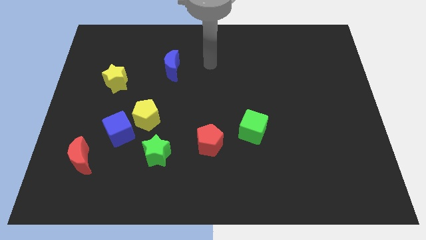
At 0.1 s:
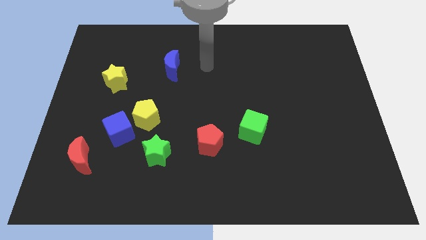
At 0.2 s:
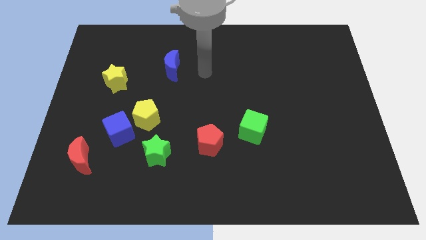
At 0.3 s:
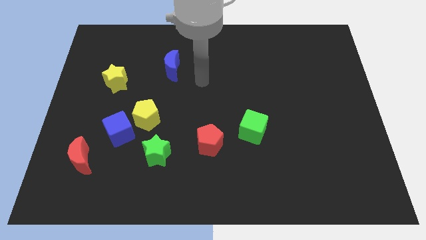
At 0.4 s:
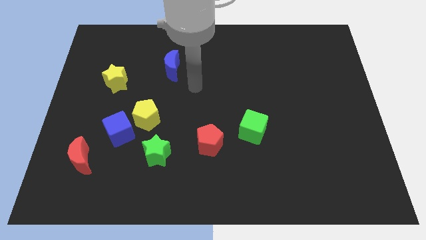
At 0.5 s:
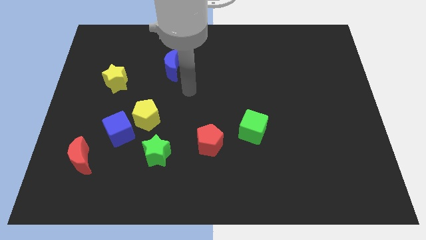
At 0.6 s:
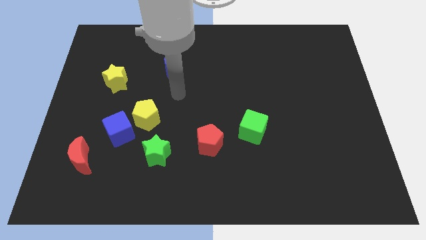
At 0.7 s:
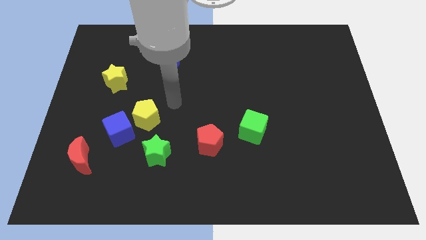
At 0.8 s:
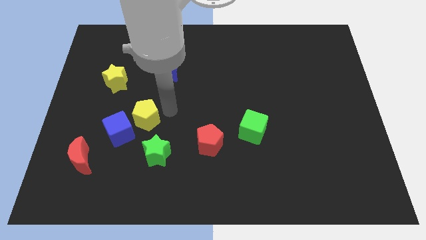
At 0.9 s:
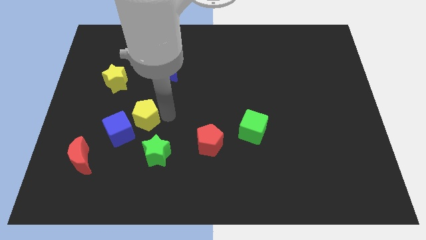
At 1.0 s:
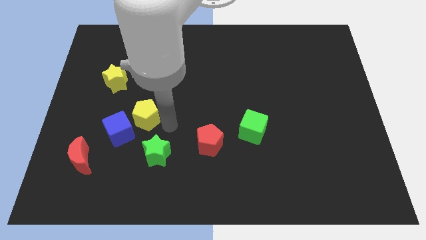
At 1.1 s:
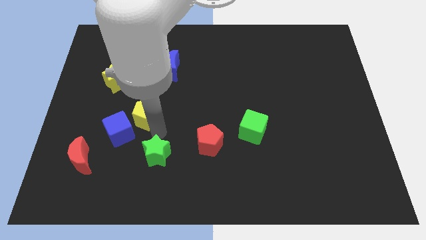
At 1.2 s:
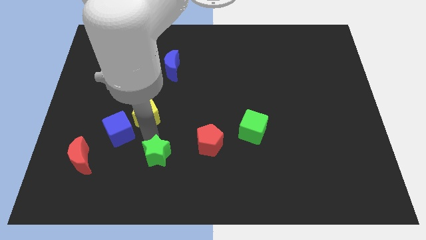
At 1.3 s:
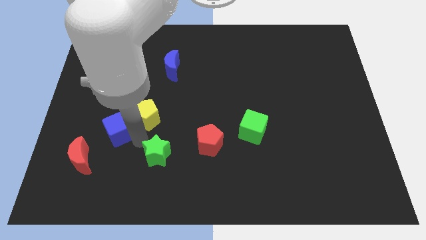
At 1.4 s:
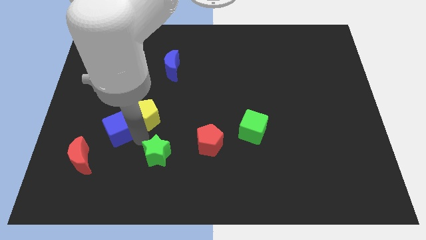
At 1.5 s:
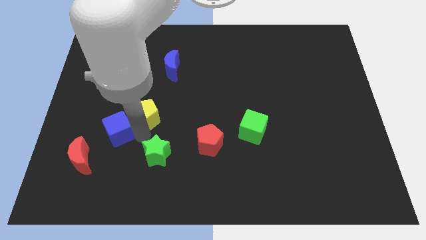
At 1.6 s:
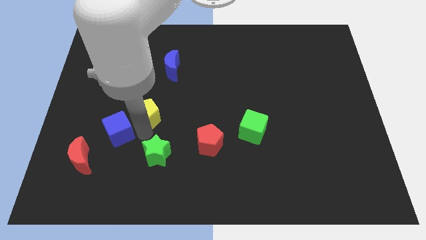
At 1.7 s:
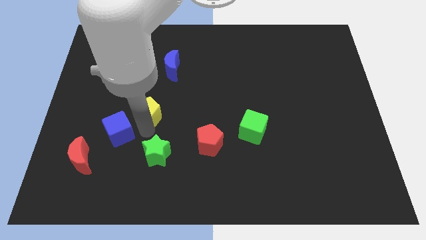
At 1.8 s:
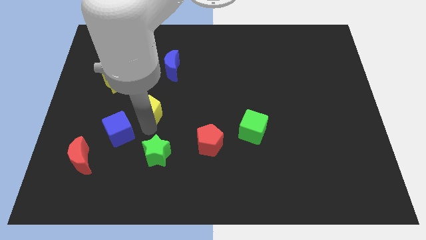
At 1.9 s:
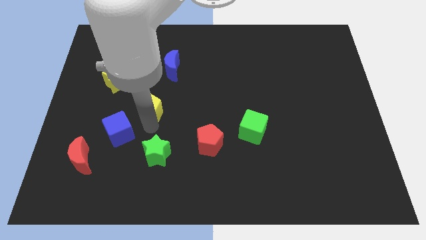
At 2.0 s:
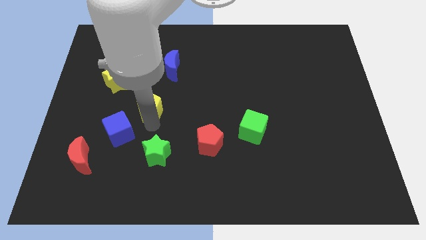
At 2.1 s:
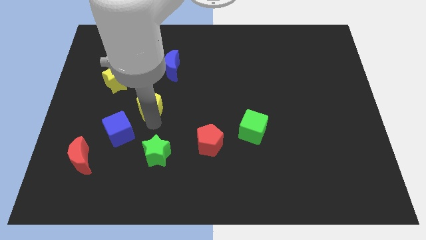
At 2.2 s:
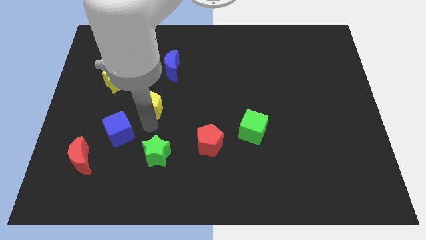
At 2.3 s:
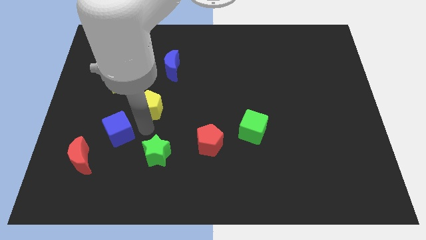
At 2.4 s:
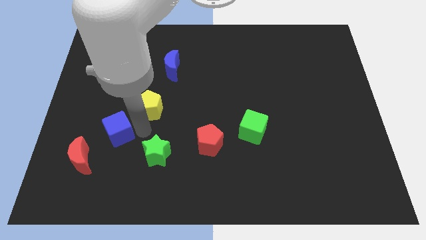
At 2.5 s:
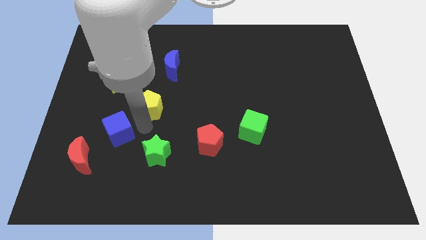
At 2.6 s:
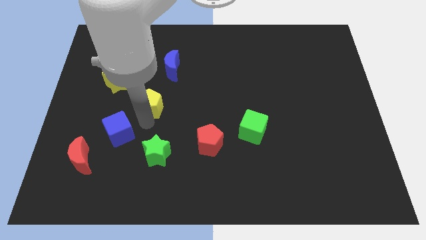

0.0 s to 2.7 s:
separate the yellow pentagon from the blue cube and green star

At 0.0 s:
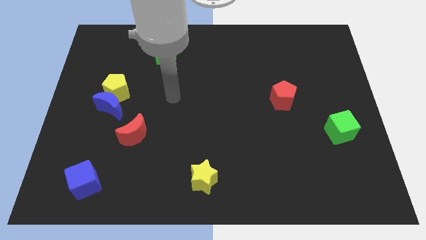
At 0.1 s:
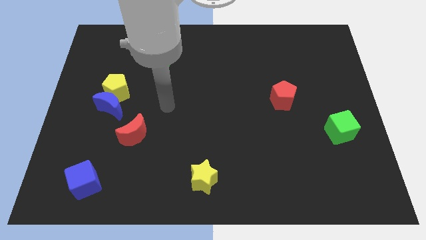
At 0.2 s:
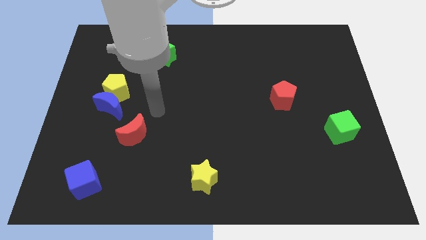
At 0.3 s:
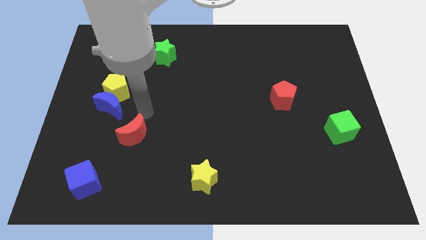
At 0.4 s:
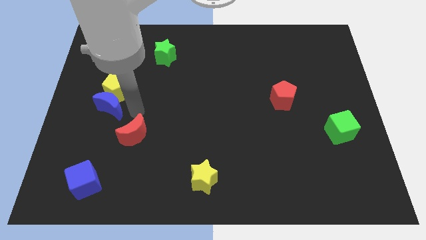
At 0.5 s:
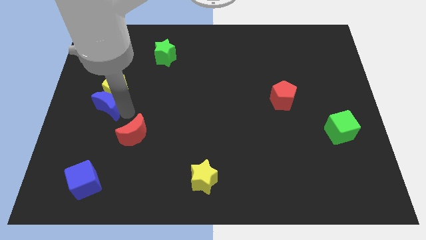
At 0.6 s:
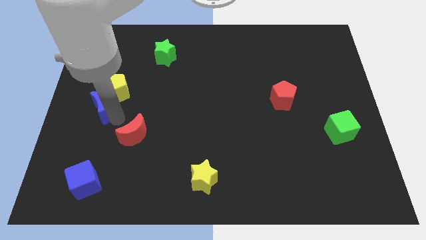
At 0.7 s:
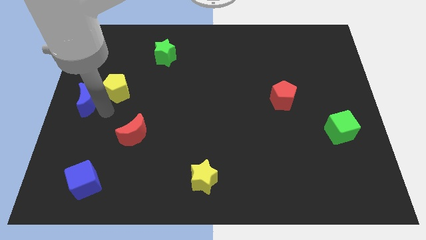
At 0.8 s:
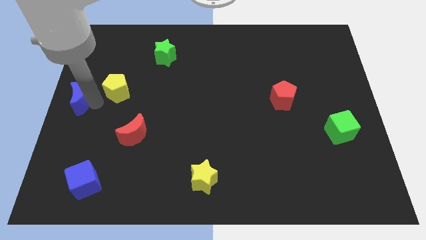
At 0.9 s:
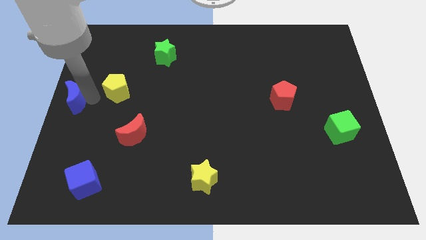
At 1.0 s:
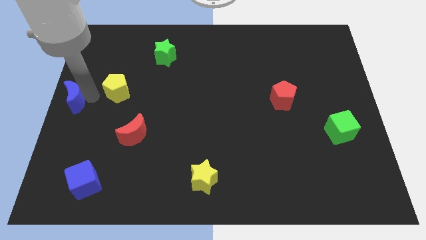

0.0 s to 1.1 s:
pull the yellow pentagon apart from the blue moon

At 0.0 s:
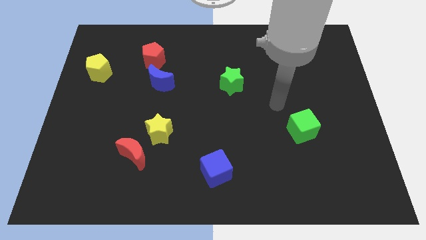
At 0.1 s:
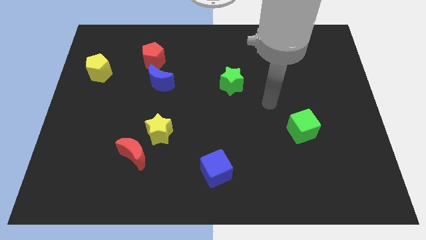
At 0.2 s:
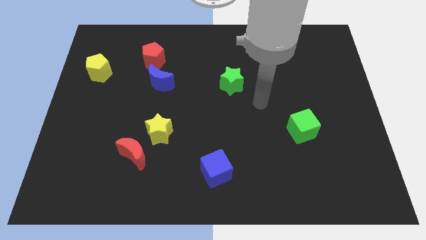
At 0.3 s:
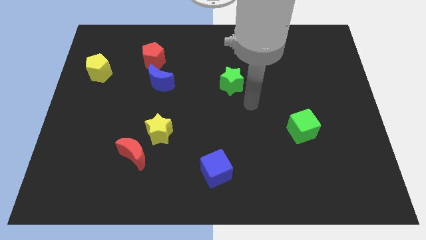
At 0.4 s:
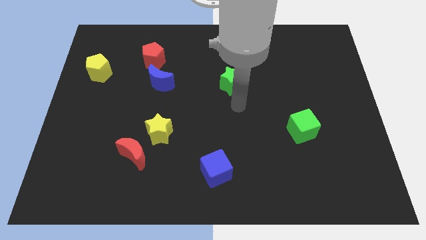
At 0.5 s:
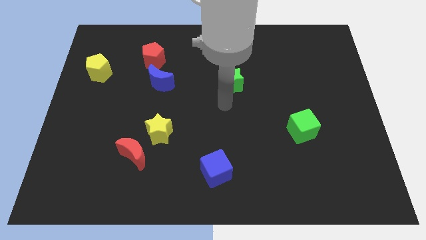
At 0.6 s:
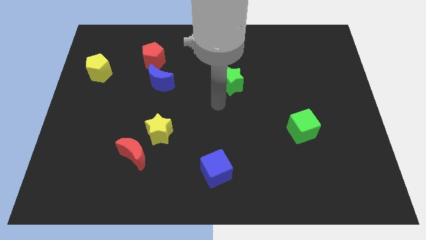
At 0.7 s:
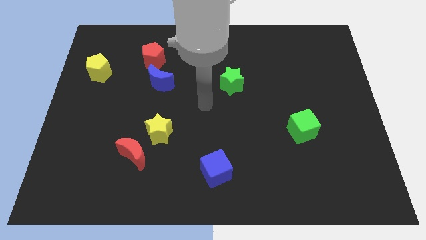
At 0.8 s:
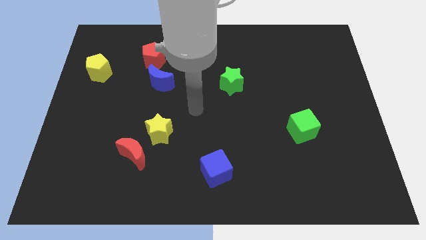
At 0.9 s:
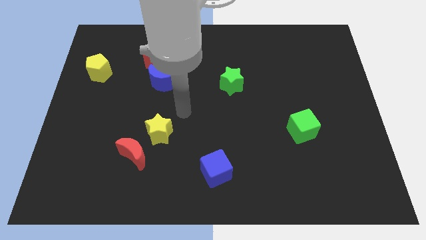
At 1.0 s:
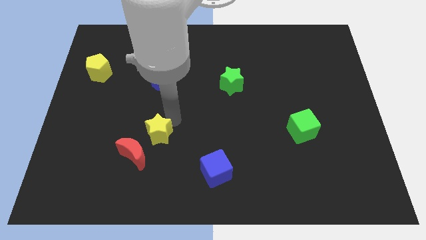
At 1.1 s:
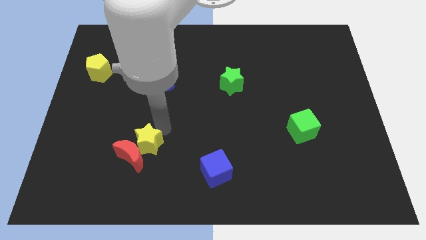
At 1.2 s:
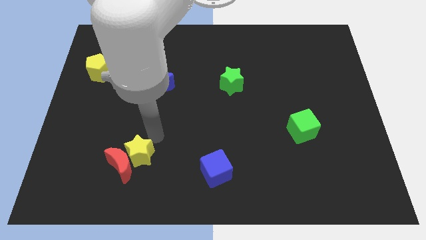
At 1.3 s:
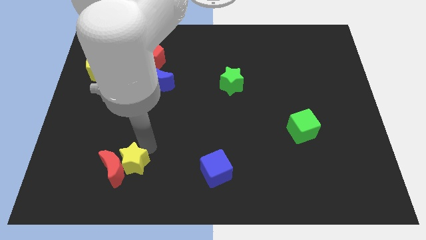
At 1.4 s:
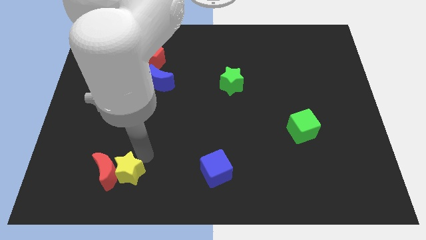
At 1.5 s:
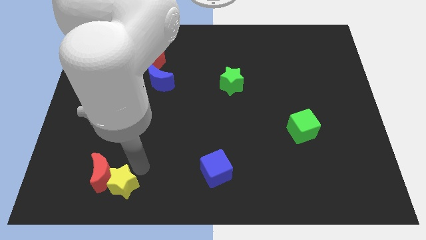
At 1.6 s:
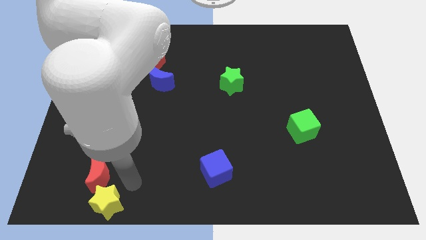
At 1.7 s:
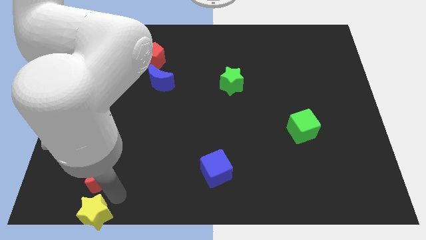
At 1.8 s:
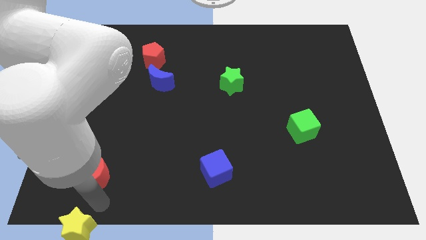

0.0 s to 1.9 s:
separate the red moon from the yellow star

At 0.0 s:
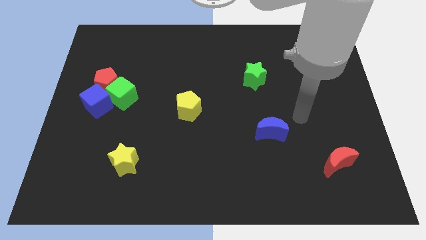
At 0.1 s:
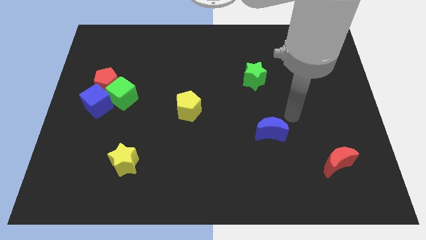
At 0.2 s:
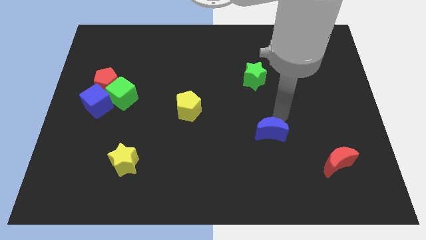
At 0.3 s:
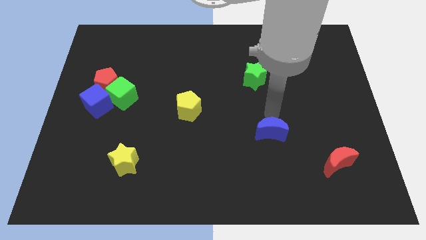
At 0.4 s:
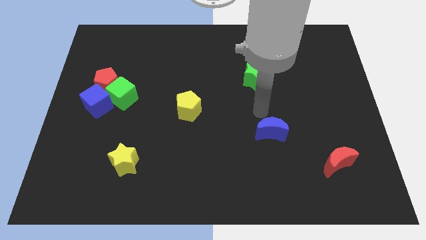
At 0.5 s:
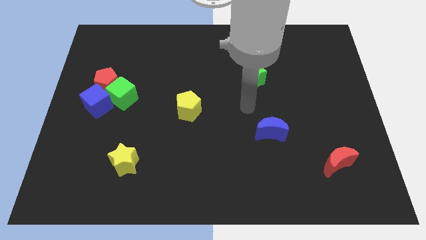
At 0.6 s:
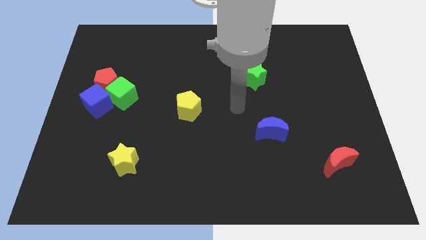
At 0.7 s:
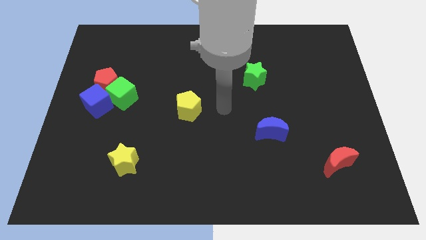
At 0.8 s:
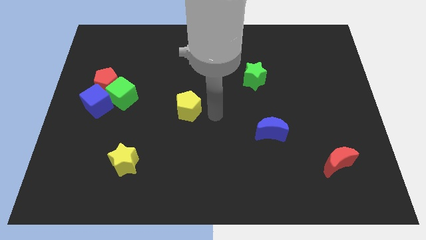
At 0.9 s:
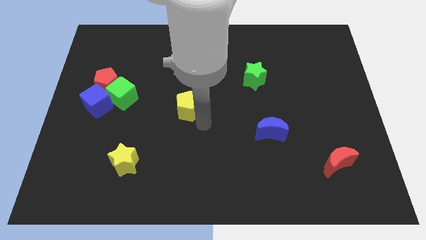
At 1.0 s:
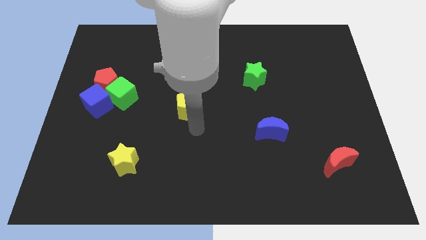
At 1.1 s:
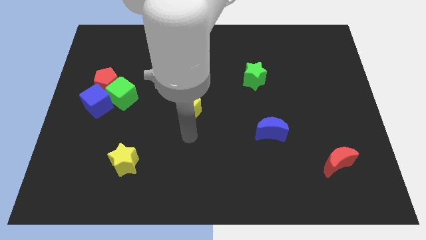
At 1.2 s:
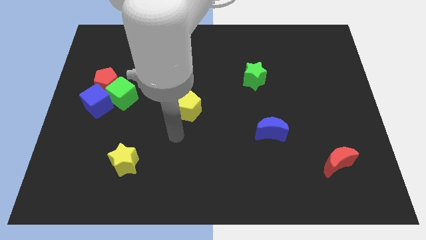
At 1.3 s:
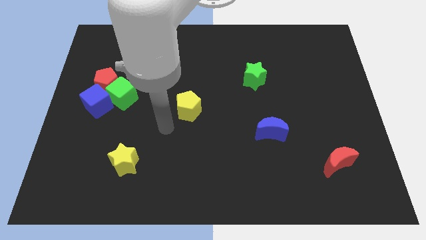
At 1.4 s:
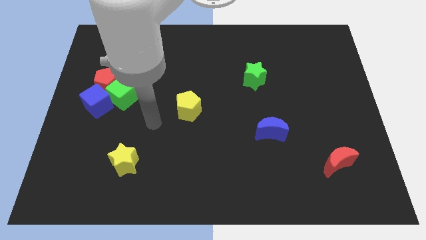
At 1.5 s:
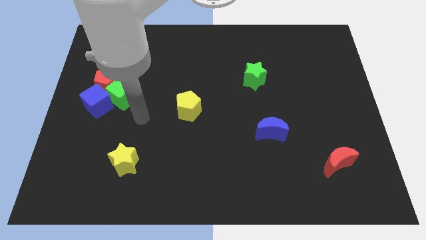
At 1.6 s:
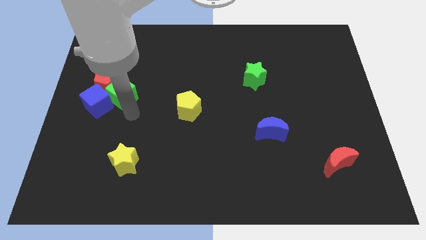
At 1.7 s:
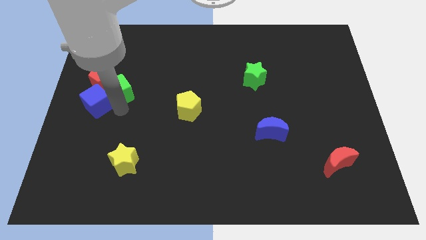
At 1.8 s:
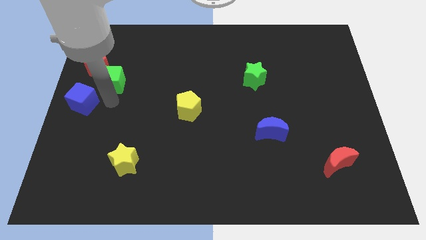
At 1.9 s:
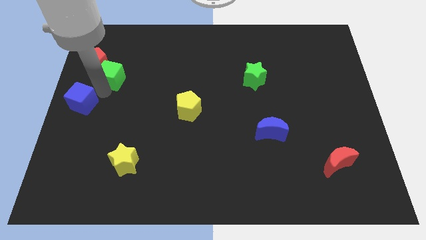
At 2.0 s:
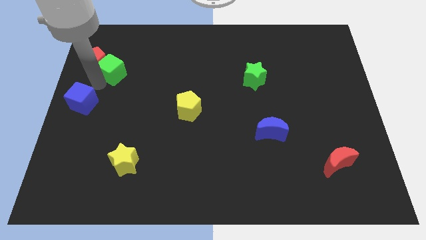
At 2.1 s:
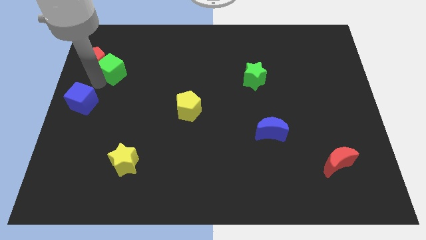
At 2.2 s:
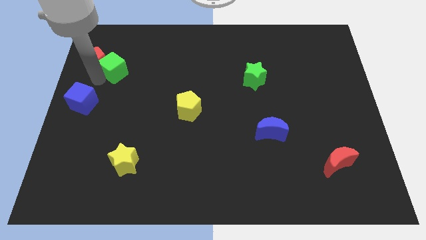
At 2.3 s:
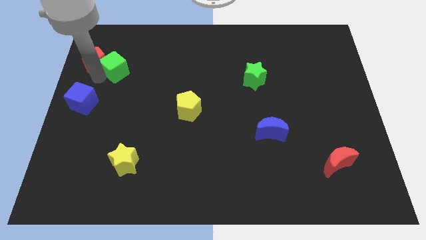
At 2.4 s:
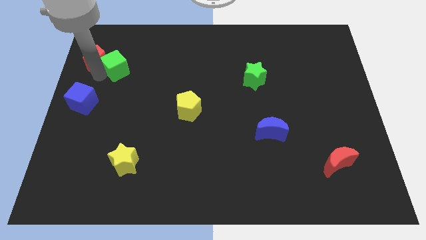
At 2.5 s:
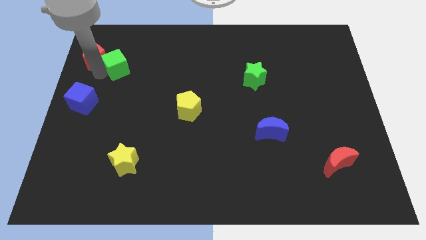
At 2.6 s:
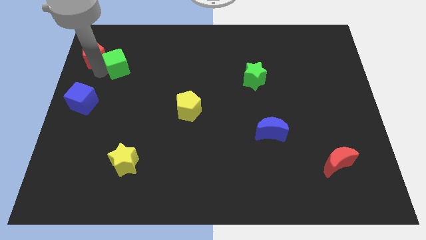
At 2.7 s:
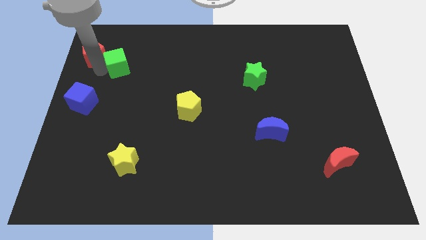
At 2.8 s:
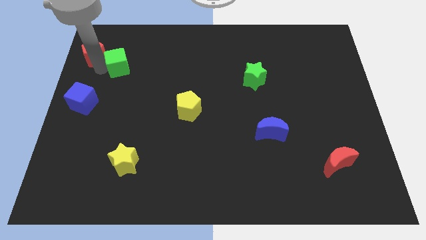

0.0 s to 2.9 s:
move the red pentagon away from the green cube and blue cube

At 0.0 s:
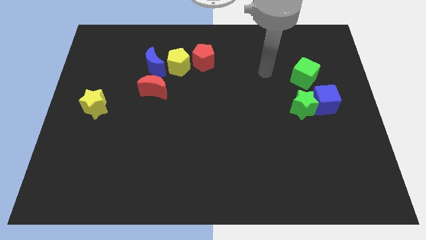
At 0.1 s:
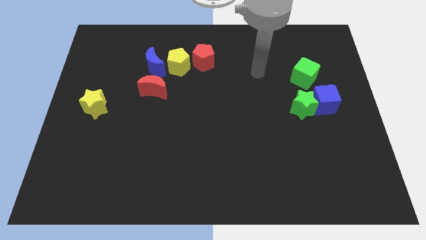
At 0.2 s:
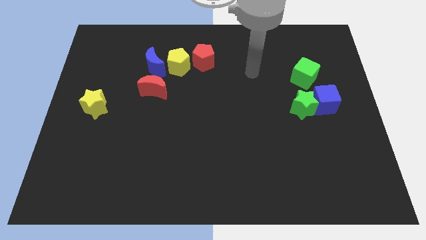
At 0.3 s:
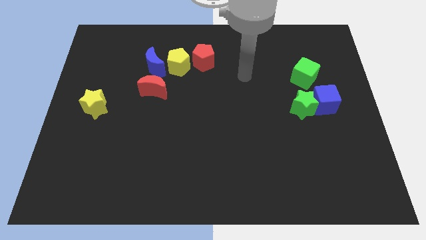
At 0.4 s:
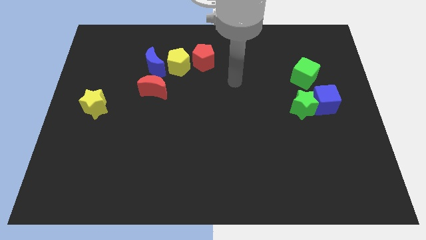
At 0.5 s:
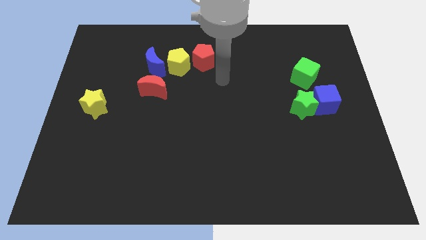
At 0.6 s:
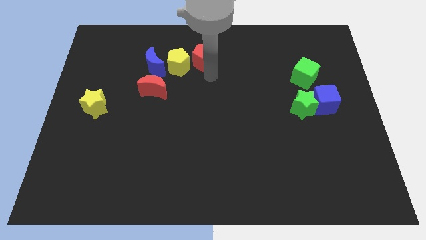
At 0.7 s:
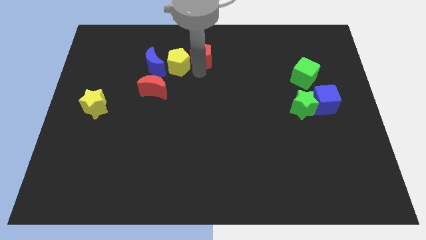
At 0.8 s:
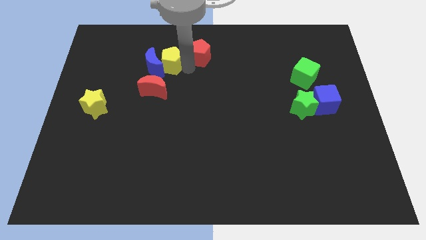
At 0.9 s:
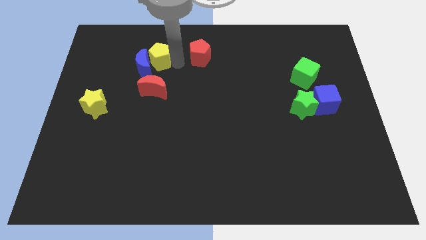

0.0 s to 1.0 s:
separate the red pentagon from the yellow pentagon
